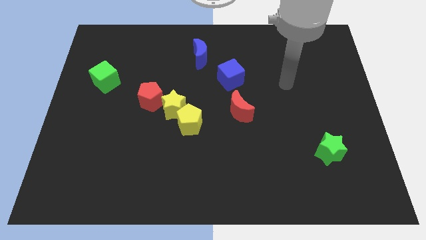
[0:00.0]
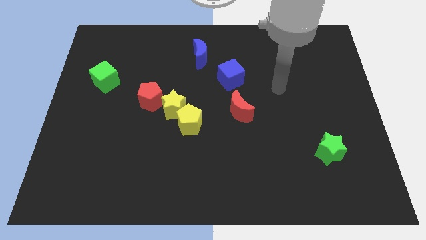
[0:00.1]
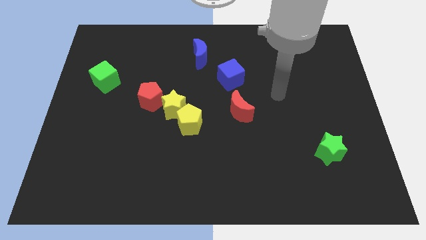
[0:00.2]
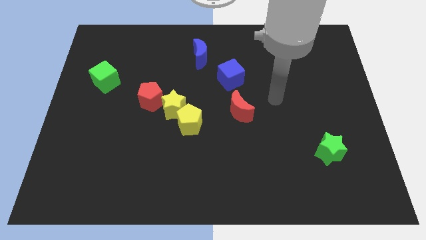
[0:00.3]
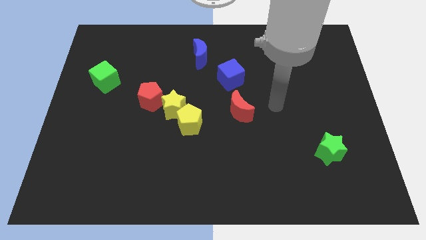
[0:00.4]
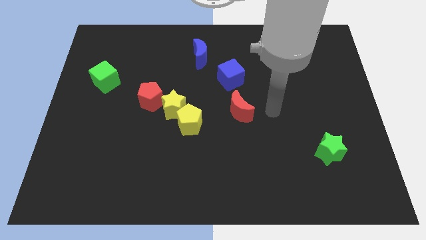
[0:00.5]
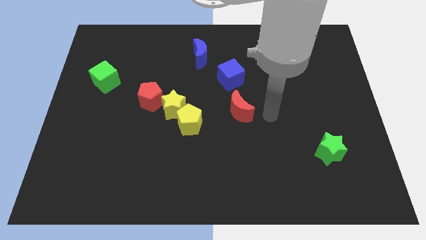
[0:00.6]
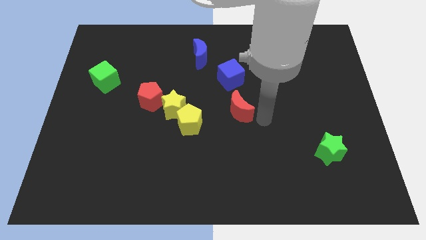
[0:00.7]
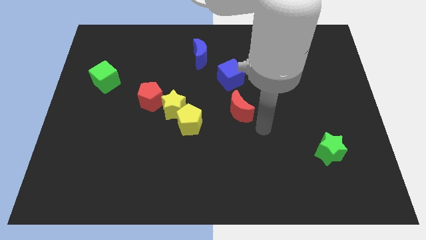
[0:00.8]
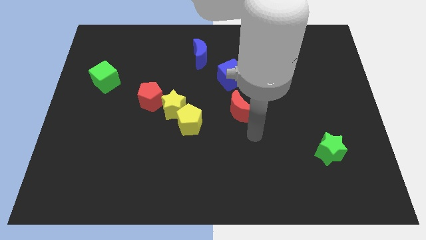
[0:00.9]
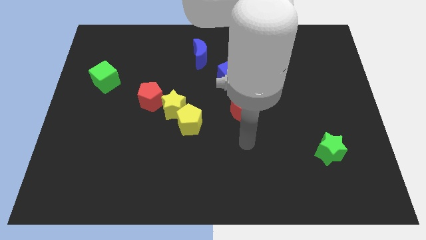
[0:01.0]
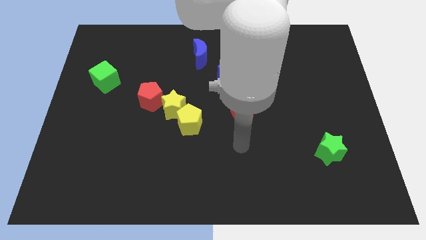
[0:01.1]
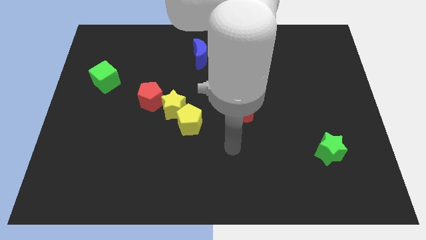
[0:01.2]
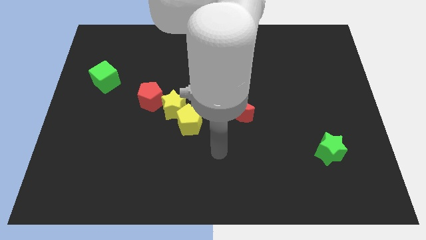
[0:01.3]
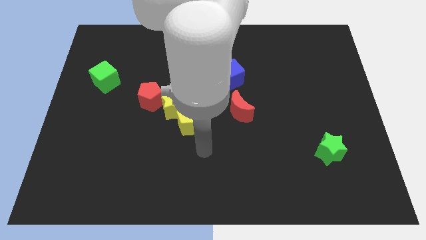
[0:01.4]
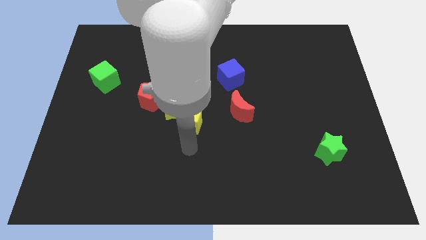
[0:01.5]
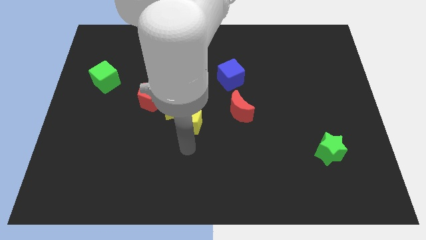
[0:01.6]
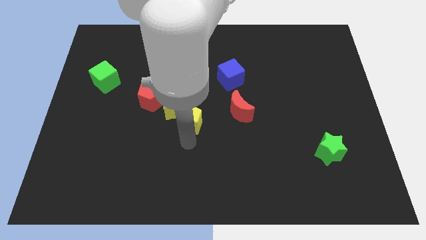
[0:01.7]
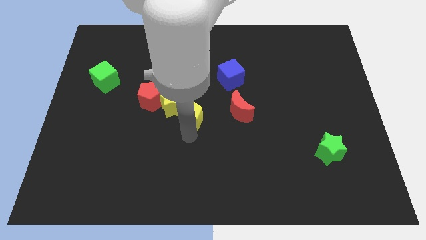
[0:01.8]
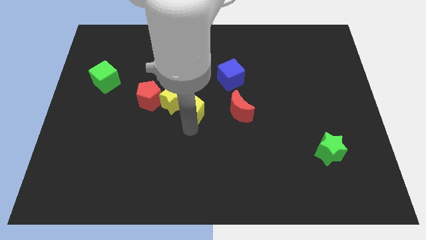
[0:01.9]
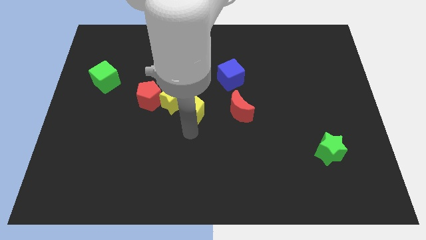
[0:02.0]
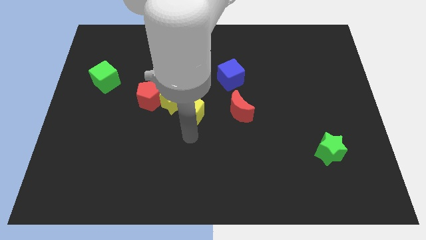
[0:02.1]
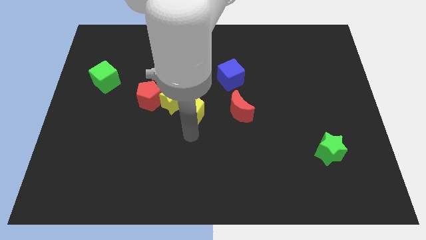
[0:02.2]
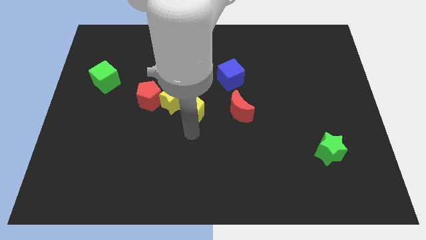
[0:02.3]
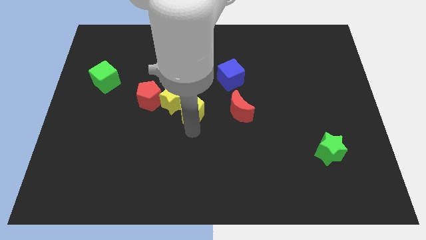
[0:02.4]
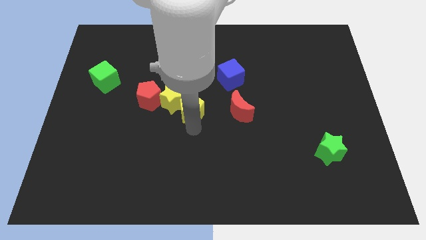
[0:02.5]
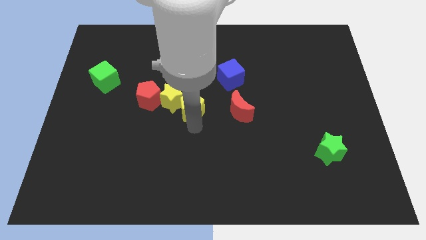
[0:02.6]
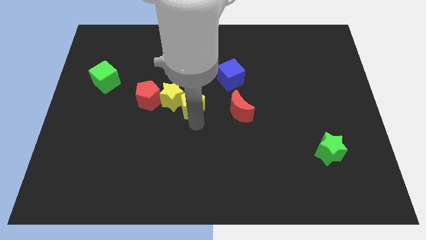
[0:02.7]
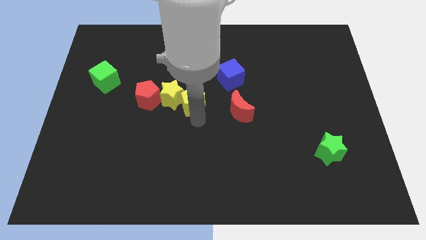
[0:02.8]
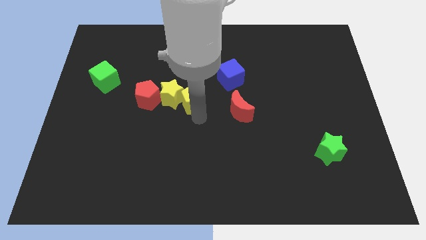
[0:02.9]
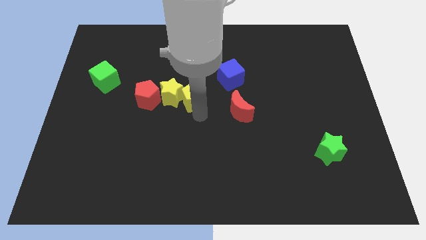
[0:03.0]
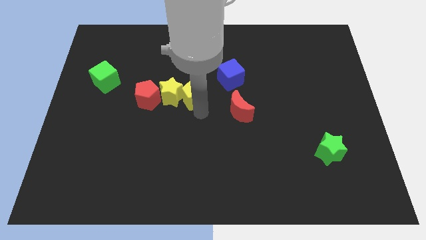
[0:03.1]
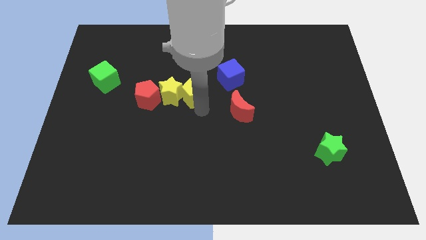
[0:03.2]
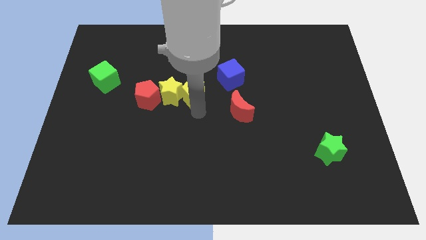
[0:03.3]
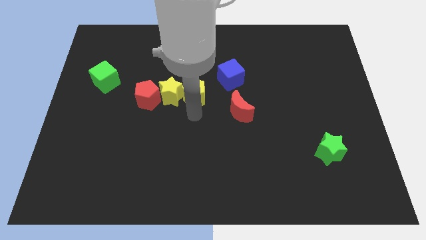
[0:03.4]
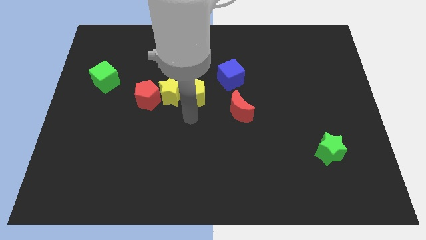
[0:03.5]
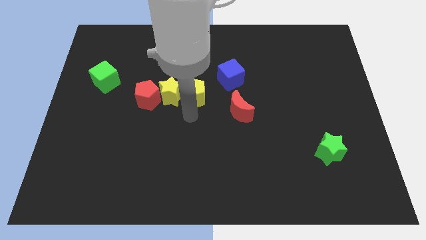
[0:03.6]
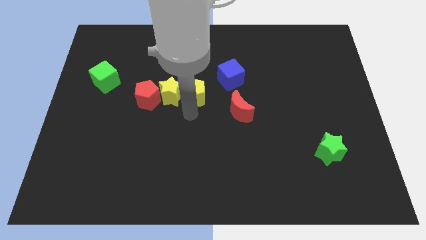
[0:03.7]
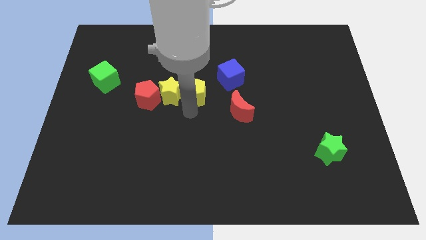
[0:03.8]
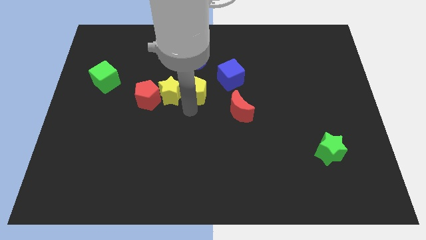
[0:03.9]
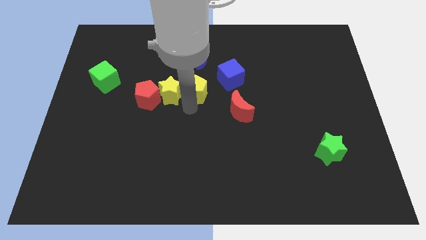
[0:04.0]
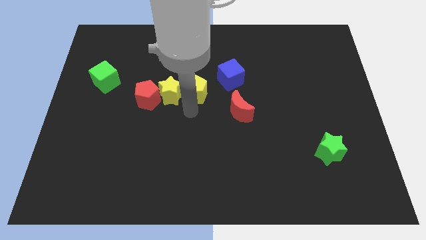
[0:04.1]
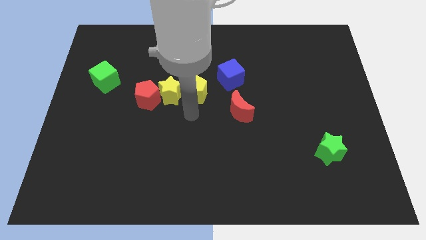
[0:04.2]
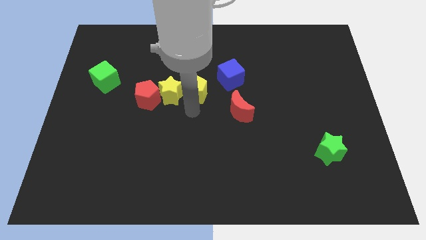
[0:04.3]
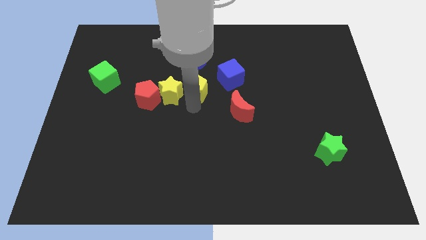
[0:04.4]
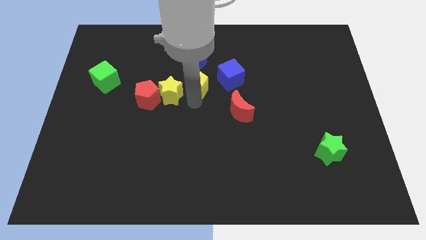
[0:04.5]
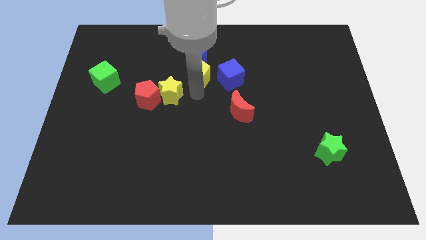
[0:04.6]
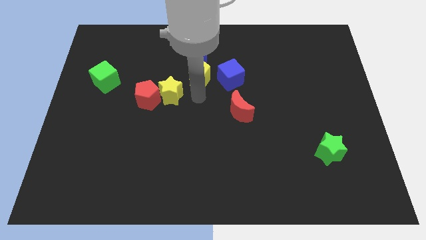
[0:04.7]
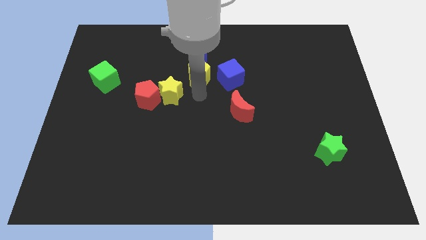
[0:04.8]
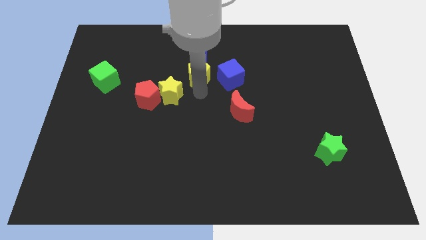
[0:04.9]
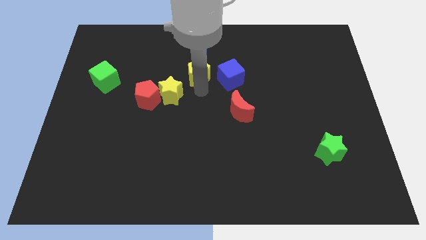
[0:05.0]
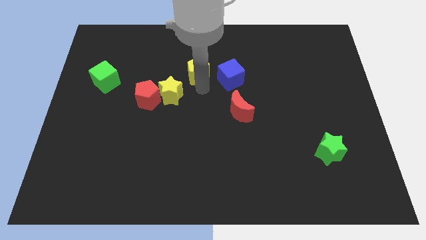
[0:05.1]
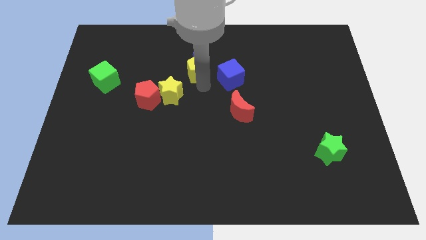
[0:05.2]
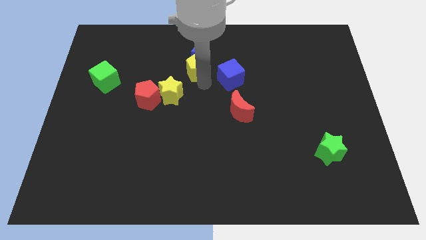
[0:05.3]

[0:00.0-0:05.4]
move the yellow pentagon towards the blue moon

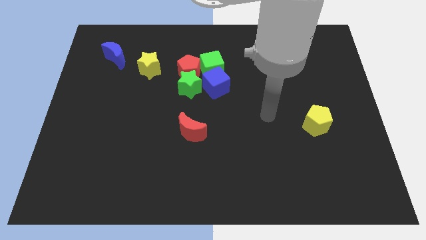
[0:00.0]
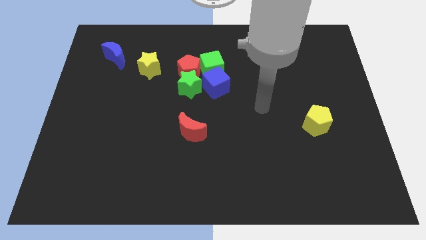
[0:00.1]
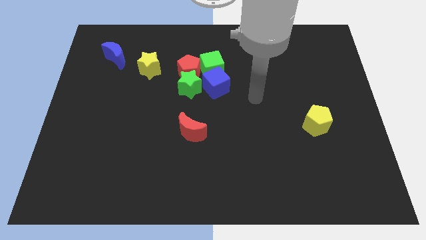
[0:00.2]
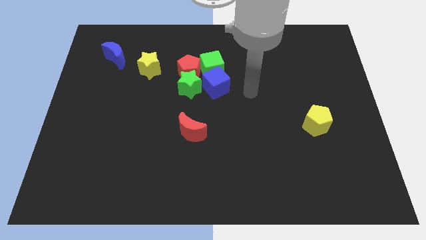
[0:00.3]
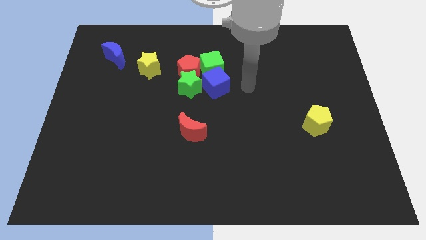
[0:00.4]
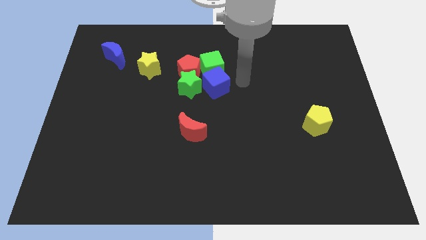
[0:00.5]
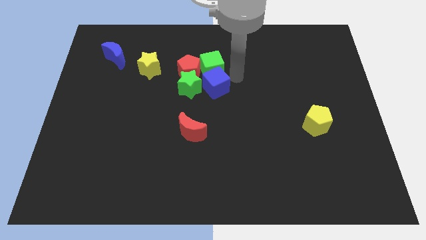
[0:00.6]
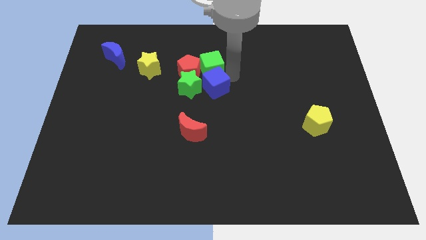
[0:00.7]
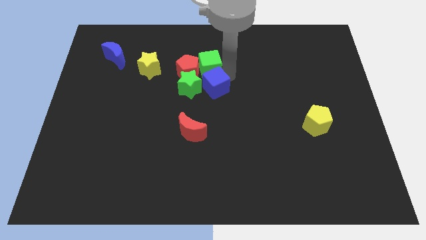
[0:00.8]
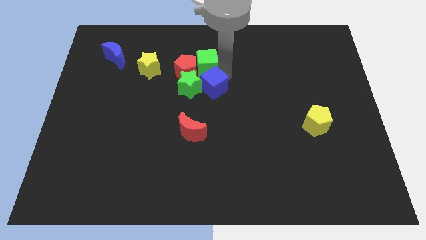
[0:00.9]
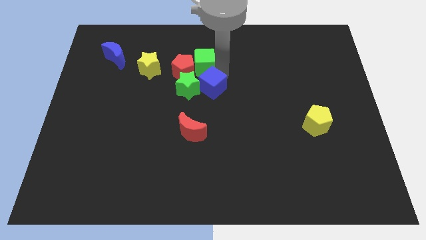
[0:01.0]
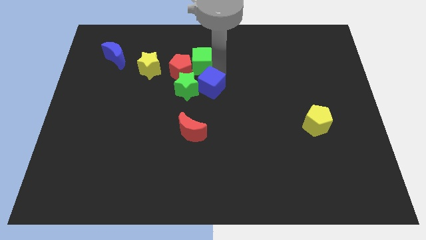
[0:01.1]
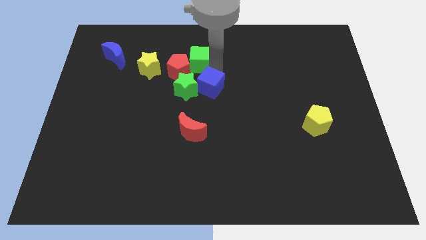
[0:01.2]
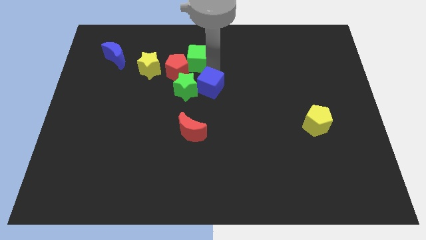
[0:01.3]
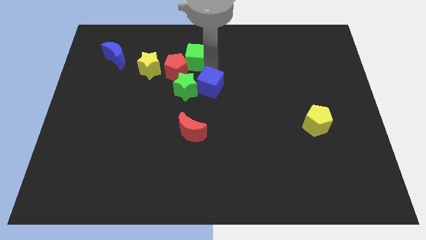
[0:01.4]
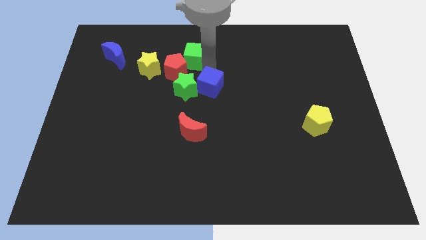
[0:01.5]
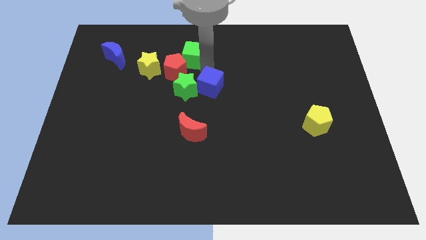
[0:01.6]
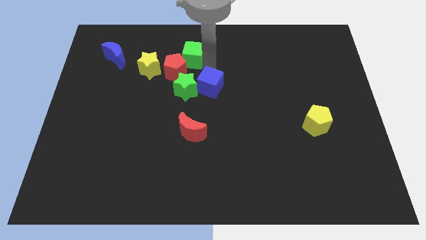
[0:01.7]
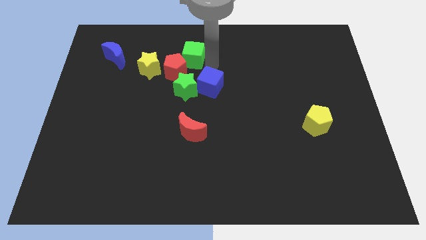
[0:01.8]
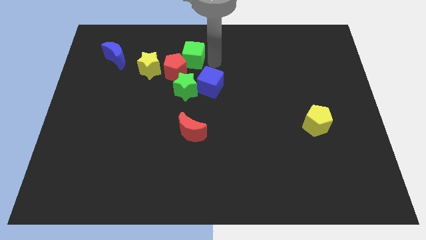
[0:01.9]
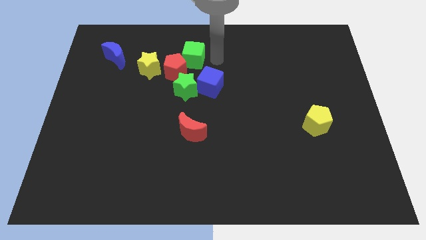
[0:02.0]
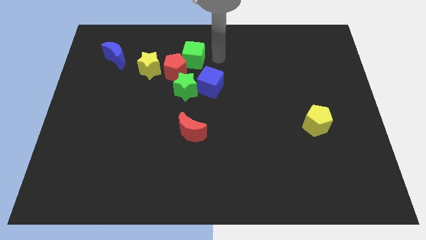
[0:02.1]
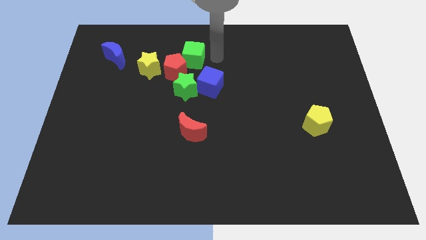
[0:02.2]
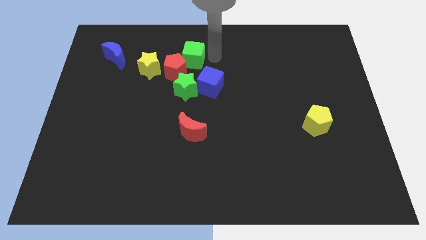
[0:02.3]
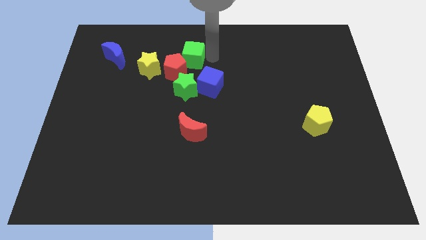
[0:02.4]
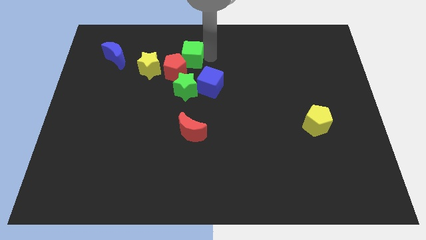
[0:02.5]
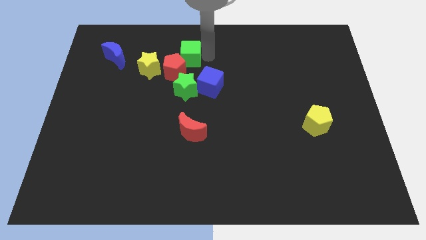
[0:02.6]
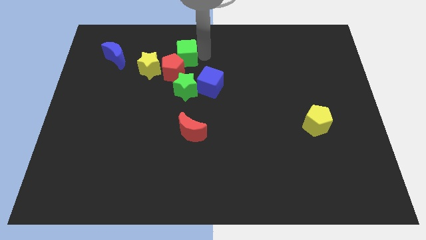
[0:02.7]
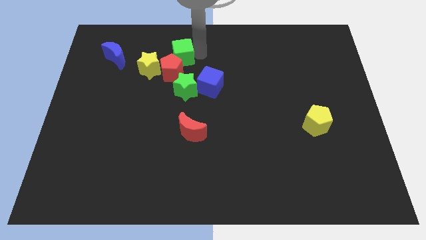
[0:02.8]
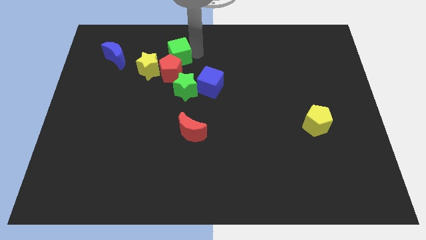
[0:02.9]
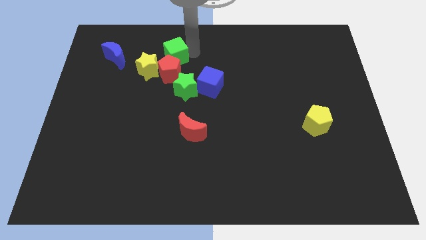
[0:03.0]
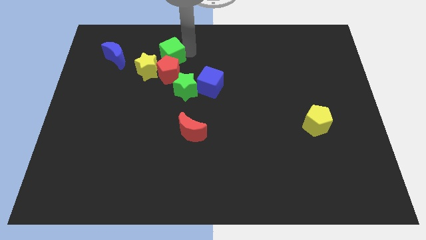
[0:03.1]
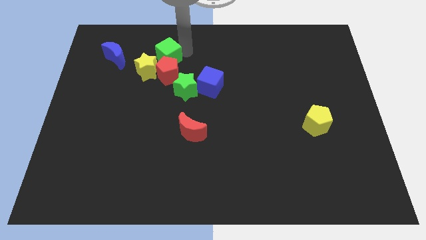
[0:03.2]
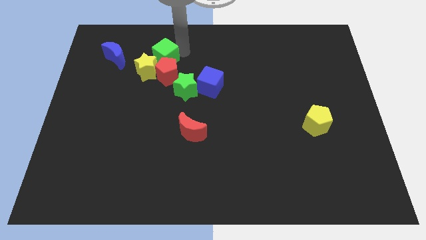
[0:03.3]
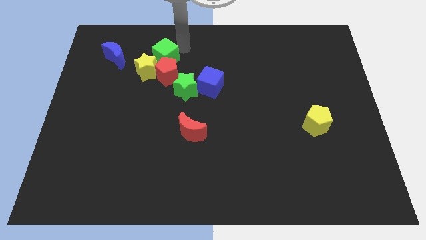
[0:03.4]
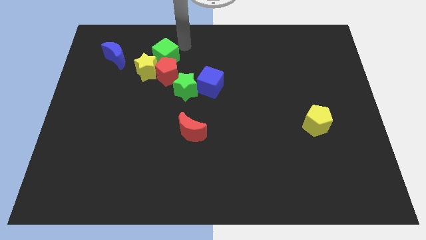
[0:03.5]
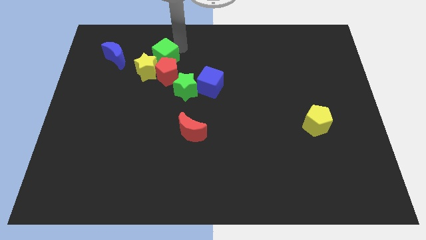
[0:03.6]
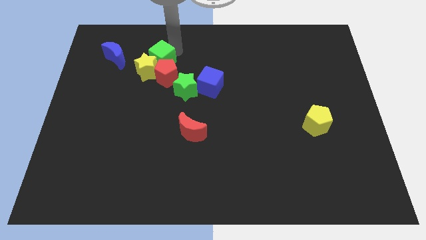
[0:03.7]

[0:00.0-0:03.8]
move the green cube towards the yellow star
